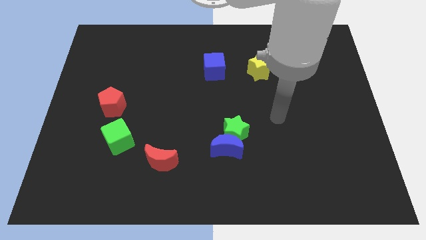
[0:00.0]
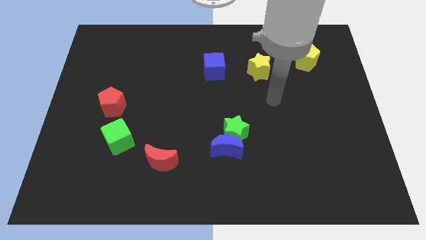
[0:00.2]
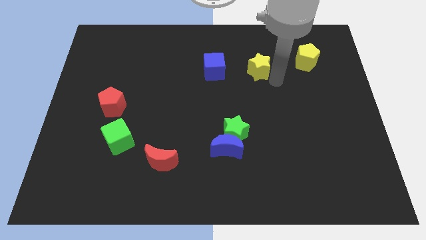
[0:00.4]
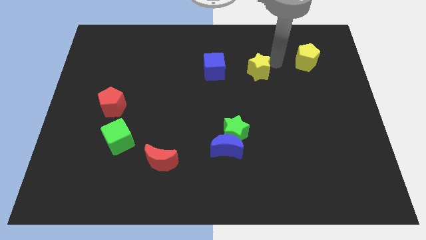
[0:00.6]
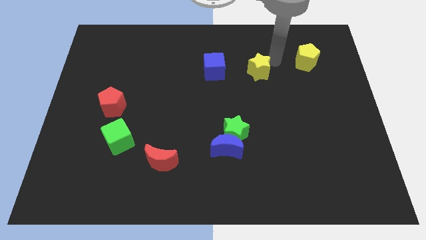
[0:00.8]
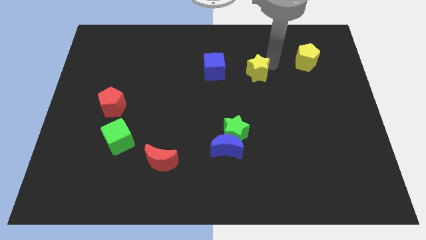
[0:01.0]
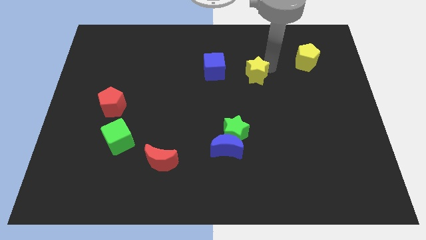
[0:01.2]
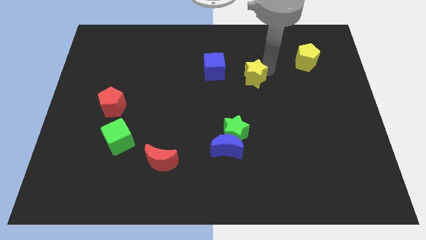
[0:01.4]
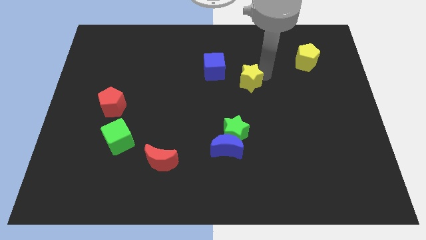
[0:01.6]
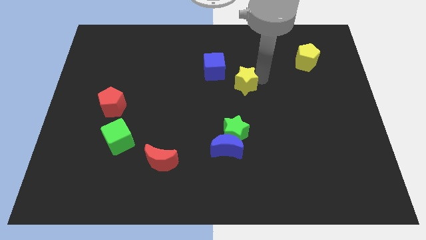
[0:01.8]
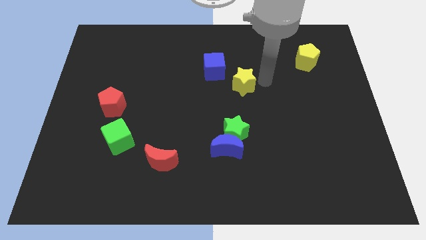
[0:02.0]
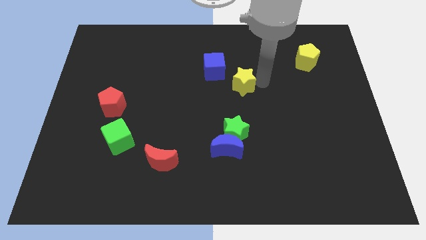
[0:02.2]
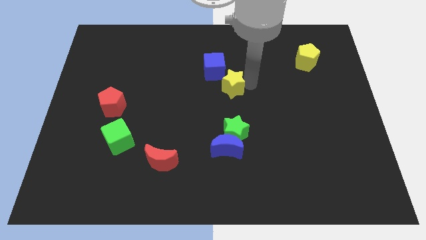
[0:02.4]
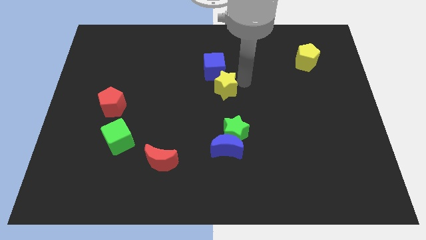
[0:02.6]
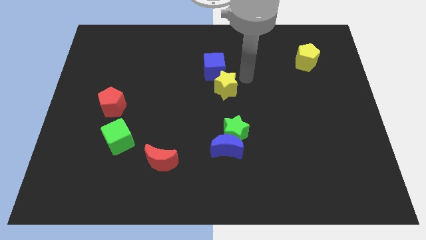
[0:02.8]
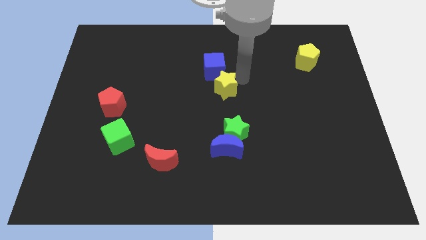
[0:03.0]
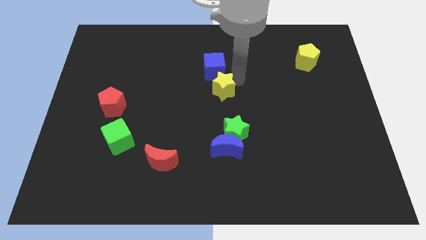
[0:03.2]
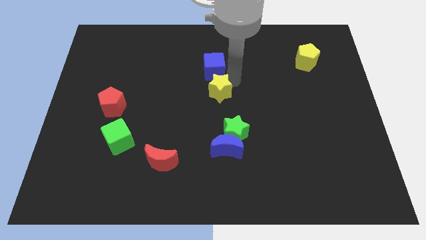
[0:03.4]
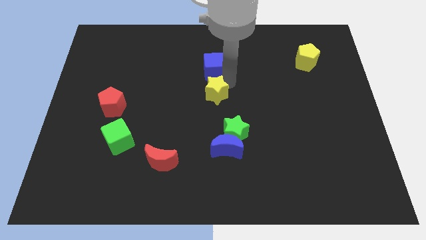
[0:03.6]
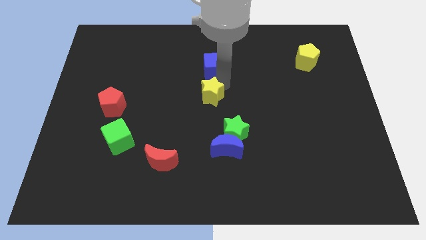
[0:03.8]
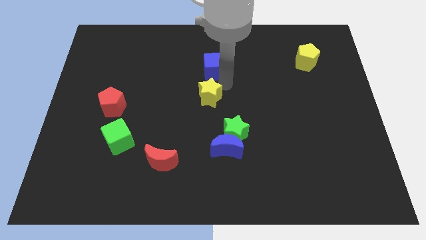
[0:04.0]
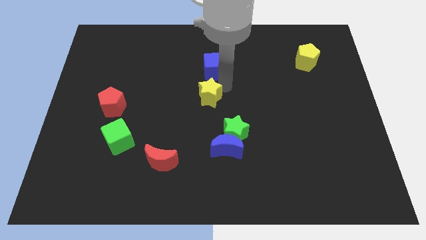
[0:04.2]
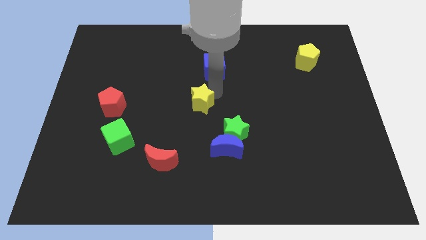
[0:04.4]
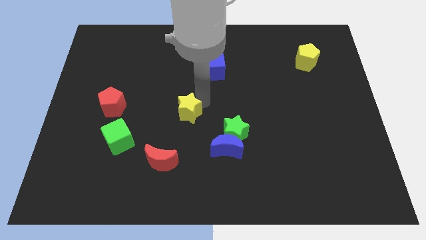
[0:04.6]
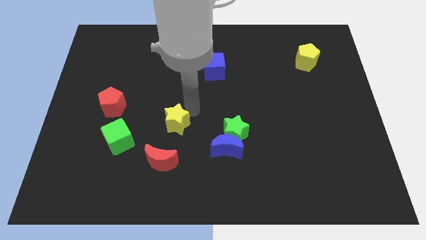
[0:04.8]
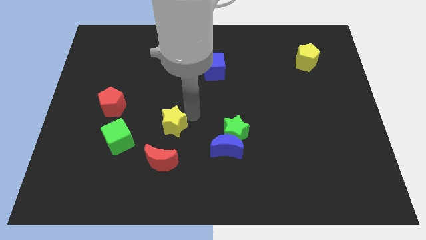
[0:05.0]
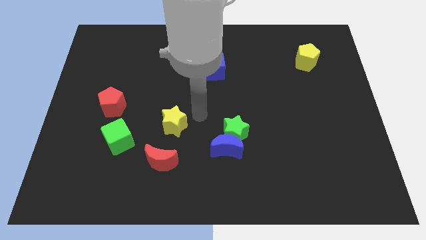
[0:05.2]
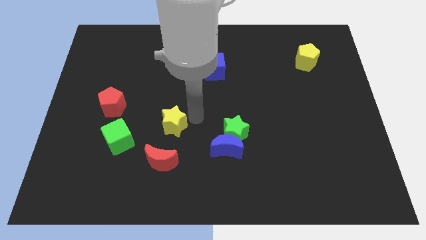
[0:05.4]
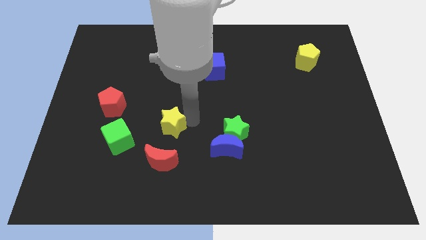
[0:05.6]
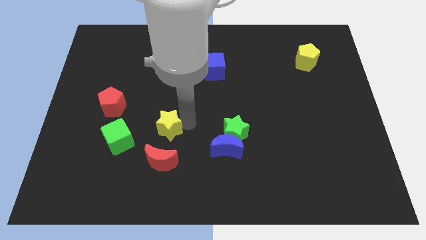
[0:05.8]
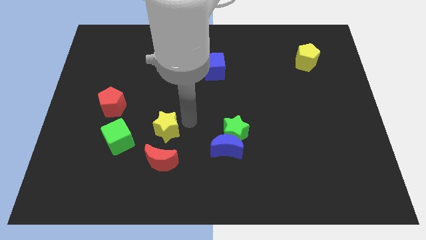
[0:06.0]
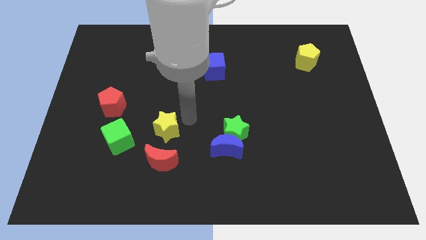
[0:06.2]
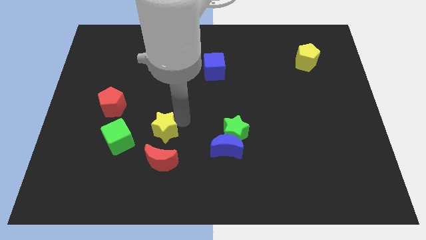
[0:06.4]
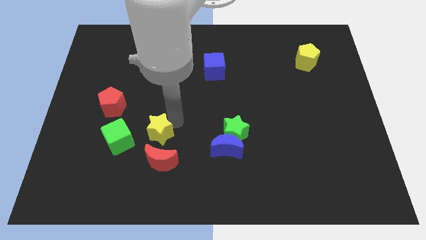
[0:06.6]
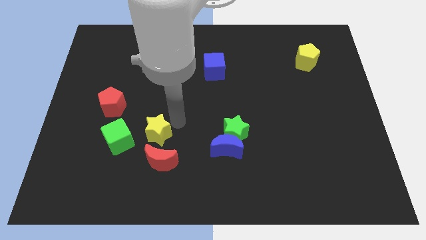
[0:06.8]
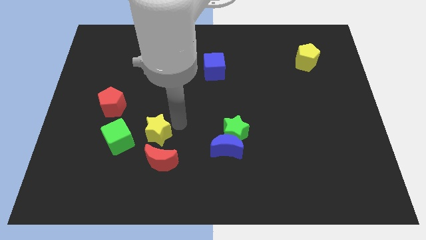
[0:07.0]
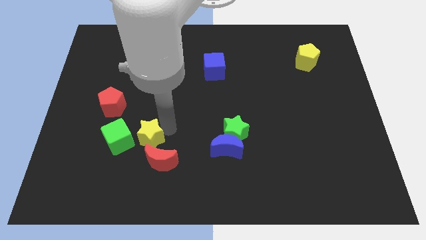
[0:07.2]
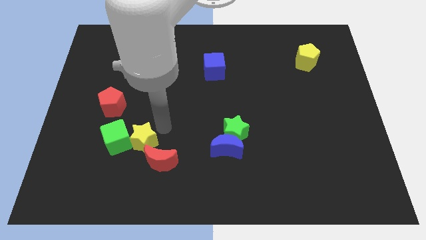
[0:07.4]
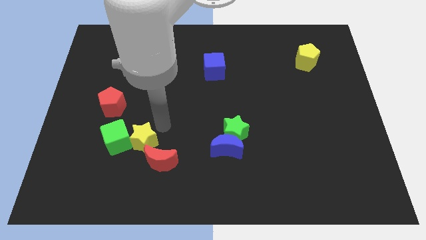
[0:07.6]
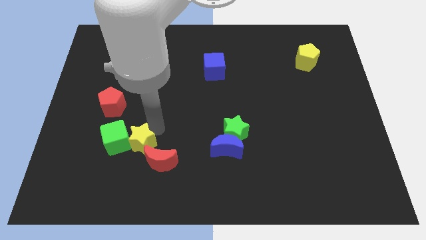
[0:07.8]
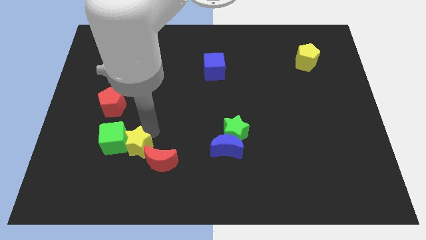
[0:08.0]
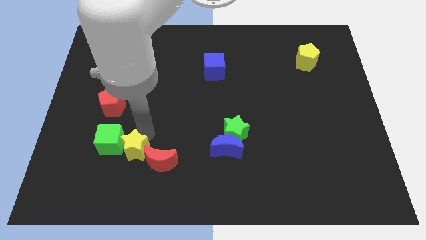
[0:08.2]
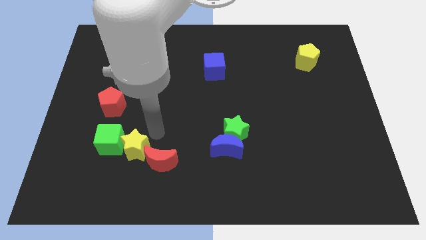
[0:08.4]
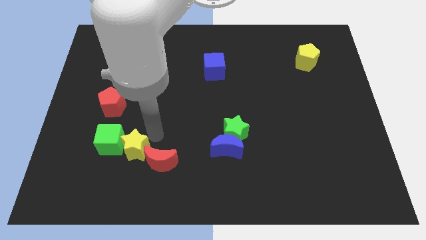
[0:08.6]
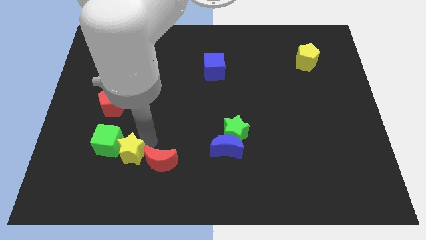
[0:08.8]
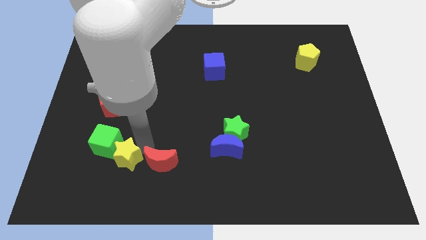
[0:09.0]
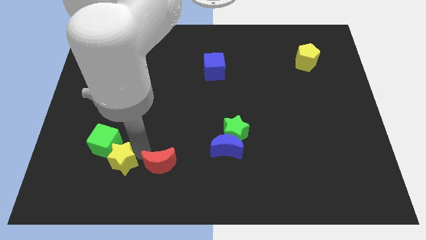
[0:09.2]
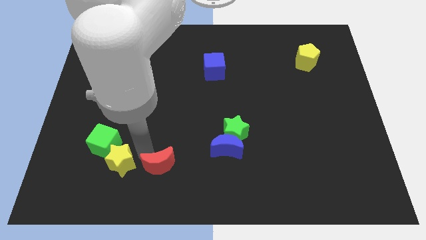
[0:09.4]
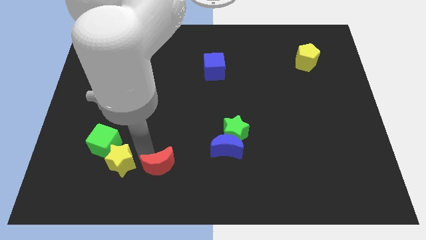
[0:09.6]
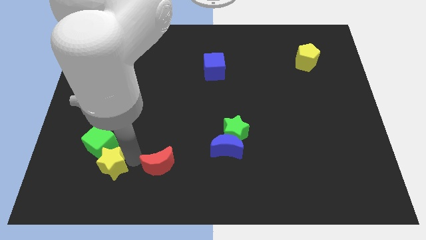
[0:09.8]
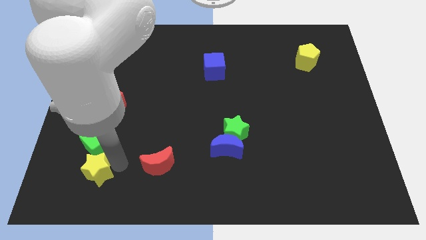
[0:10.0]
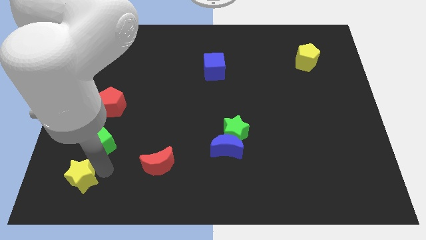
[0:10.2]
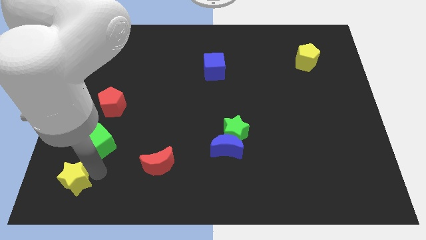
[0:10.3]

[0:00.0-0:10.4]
put the yellow star to the bottom left corner
